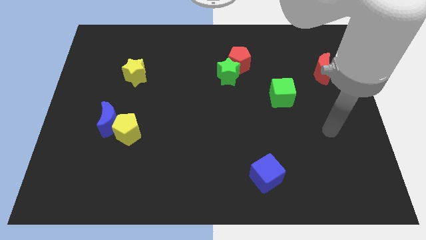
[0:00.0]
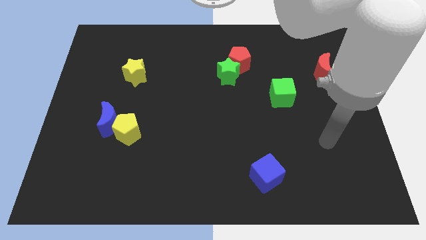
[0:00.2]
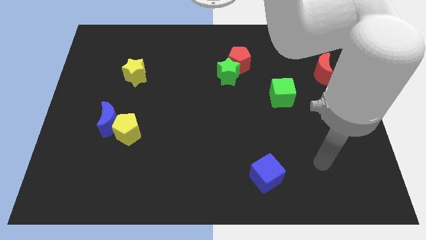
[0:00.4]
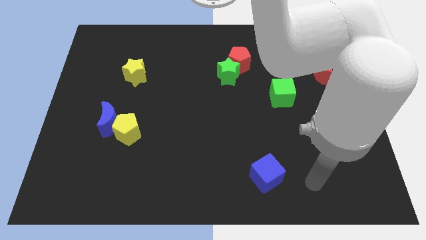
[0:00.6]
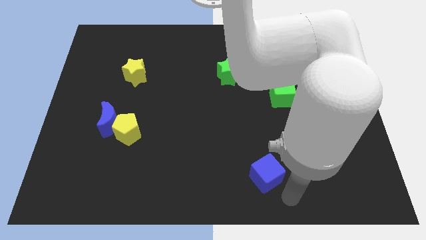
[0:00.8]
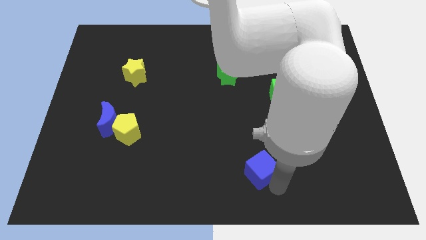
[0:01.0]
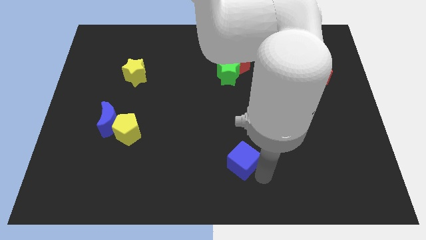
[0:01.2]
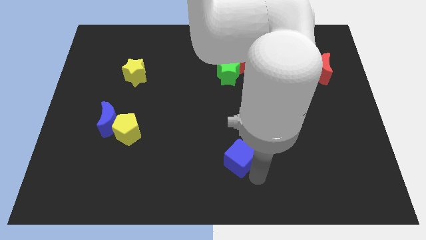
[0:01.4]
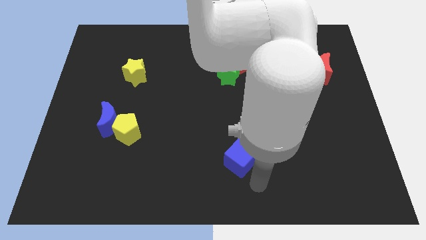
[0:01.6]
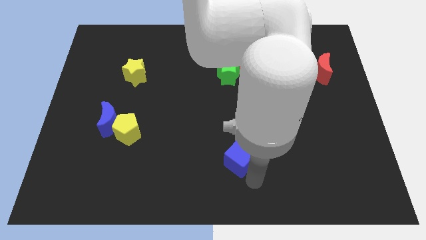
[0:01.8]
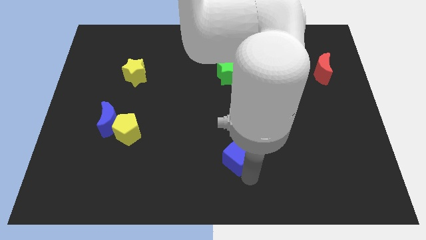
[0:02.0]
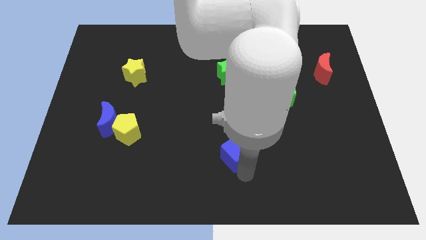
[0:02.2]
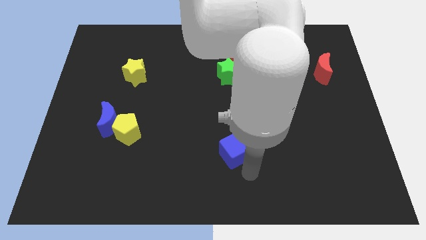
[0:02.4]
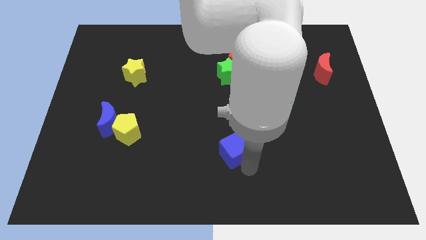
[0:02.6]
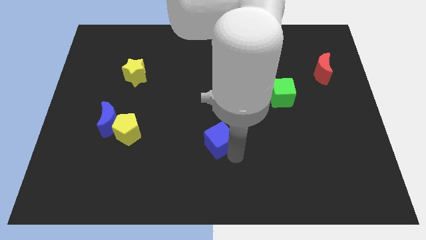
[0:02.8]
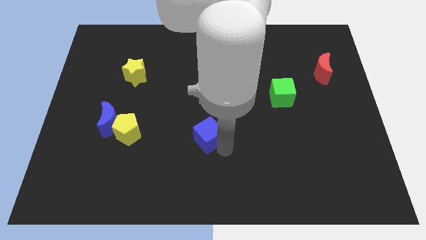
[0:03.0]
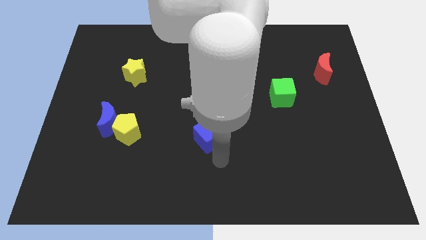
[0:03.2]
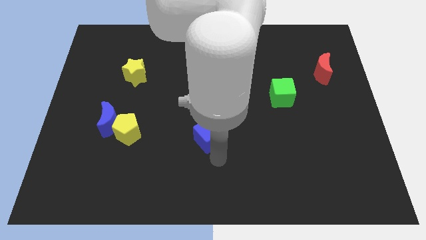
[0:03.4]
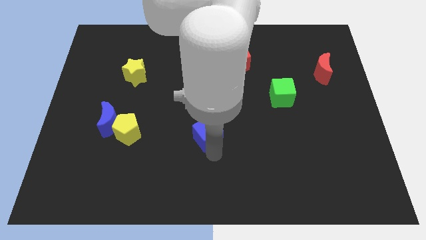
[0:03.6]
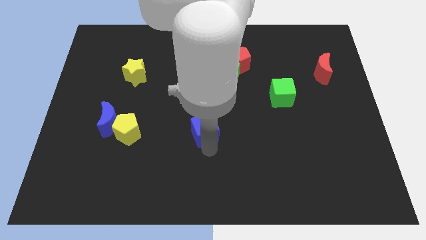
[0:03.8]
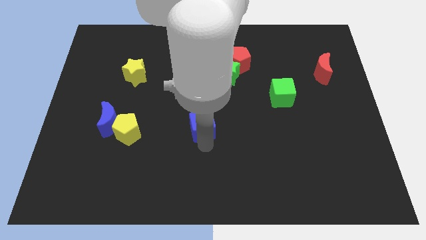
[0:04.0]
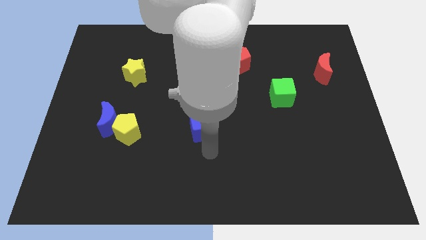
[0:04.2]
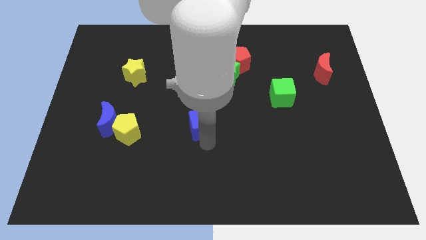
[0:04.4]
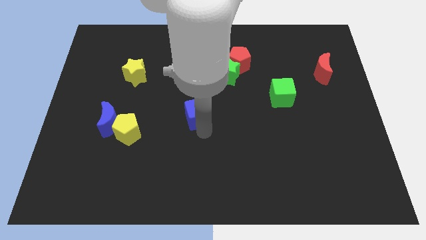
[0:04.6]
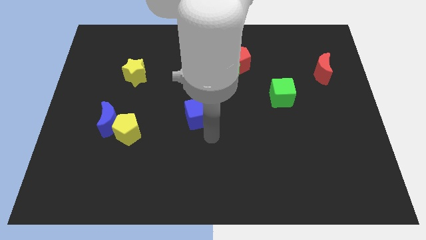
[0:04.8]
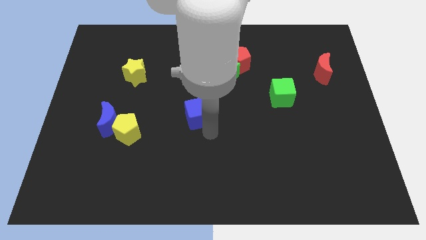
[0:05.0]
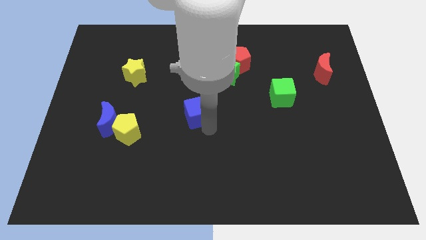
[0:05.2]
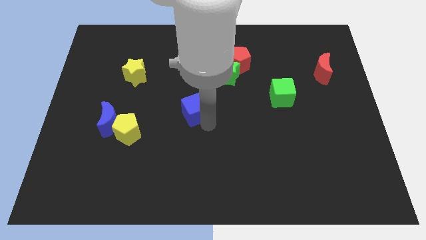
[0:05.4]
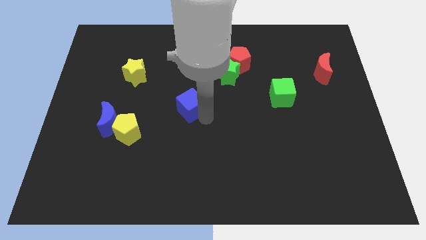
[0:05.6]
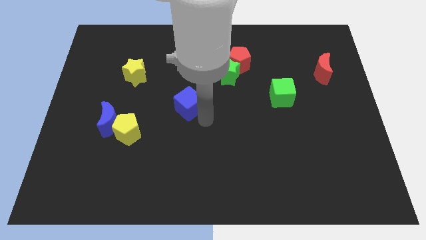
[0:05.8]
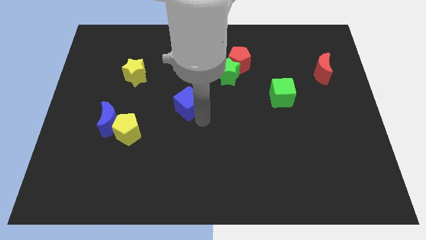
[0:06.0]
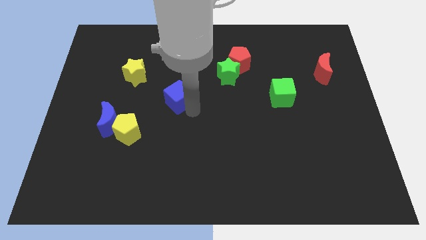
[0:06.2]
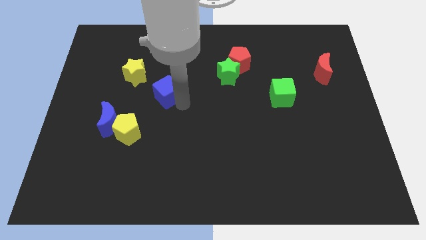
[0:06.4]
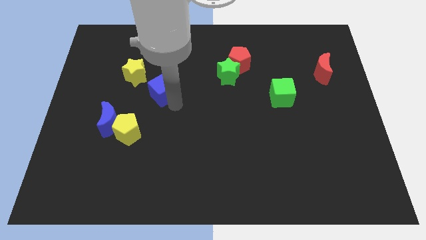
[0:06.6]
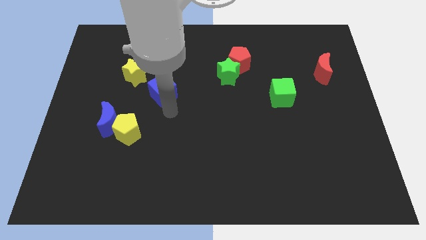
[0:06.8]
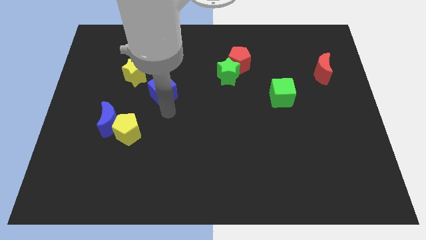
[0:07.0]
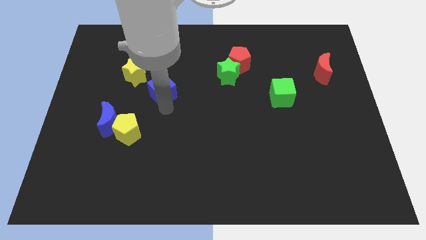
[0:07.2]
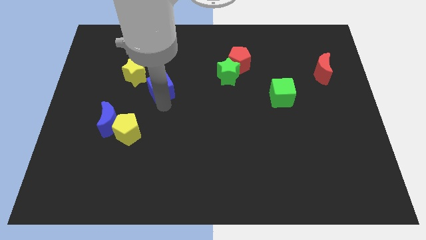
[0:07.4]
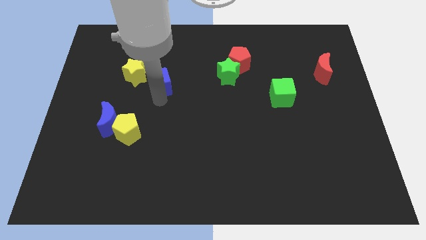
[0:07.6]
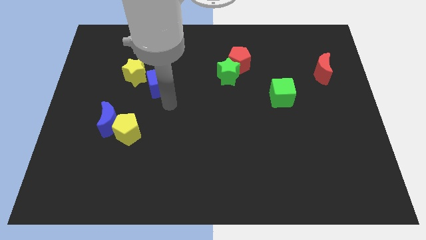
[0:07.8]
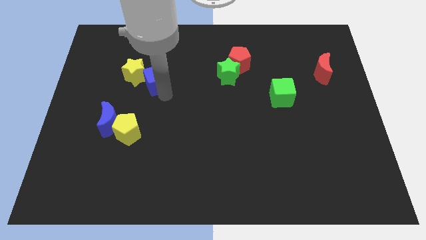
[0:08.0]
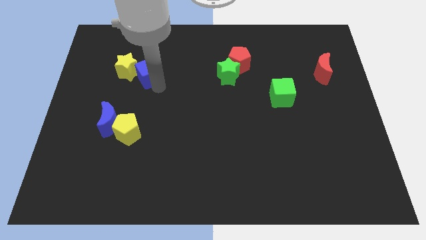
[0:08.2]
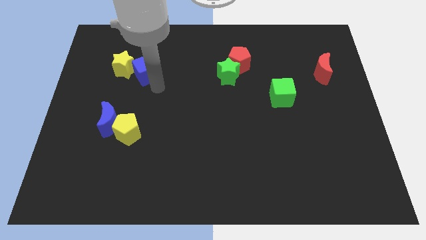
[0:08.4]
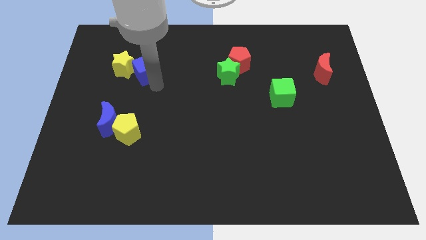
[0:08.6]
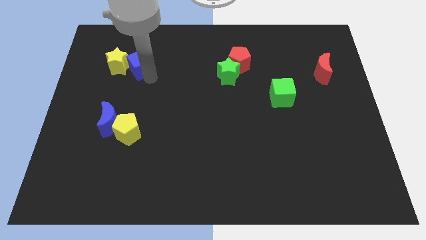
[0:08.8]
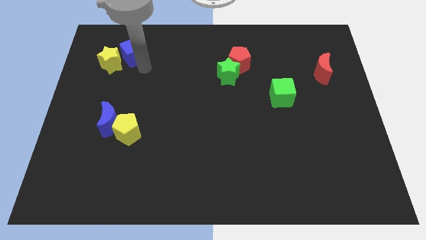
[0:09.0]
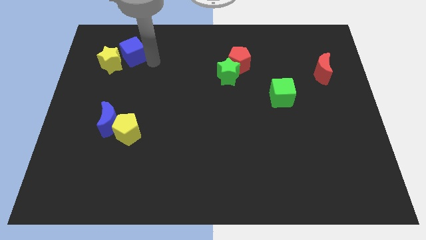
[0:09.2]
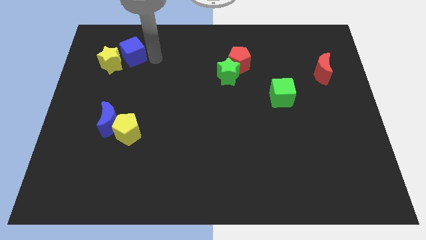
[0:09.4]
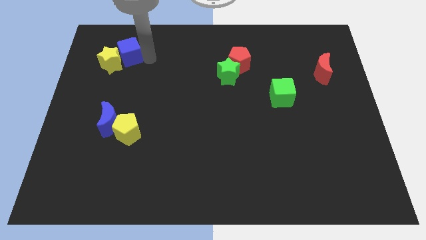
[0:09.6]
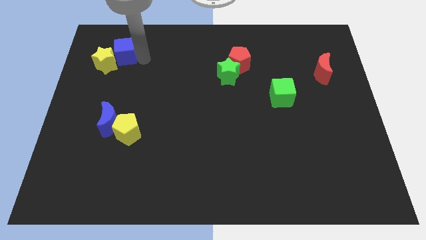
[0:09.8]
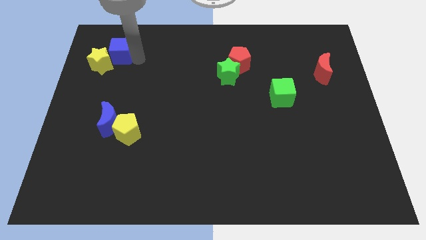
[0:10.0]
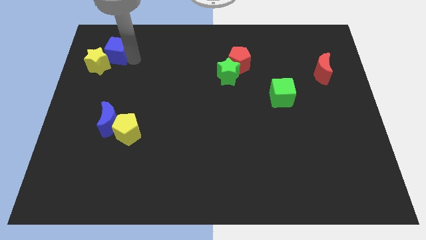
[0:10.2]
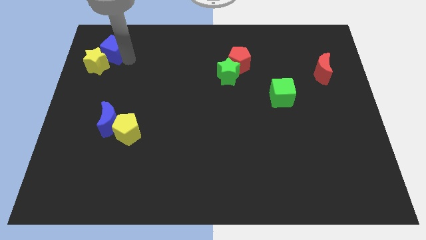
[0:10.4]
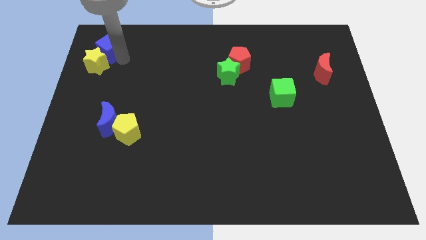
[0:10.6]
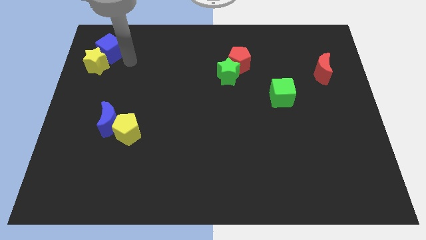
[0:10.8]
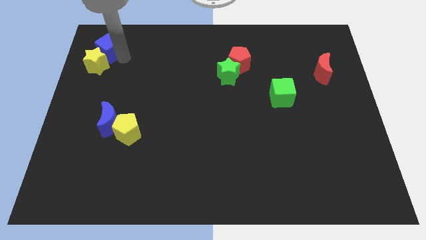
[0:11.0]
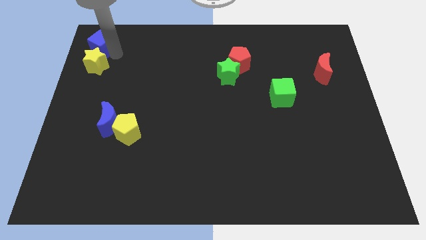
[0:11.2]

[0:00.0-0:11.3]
put the blue cube to the top left
